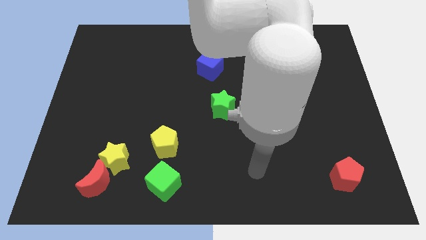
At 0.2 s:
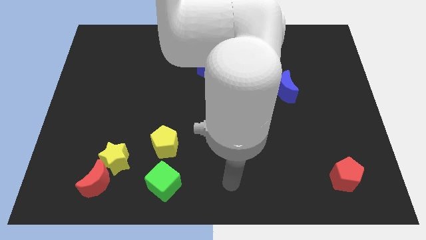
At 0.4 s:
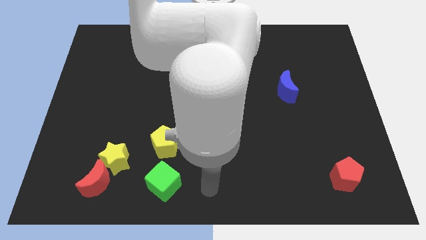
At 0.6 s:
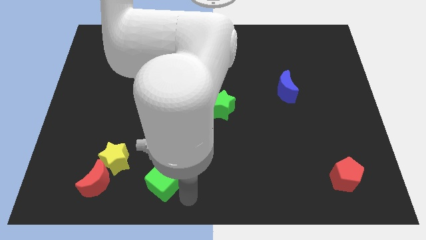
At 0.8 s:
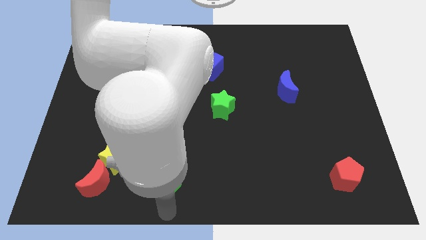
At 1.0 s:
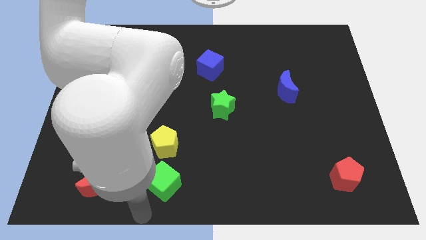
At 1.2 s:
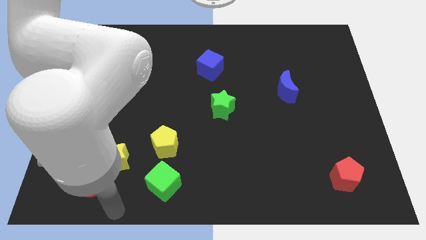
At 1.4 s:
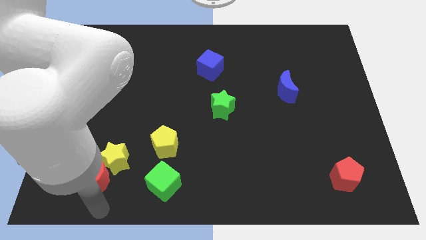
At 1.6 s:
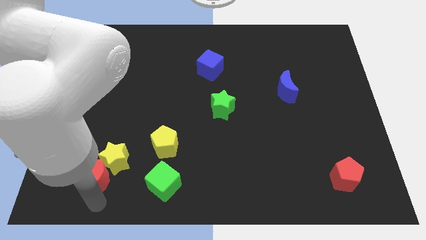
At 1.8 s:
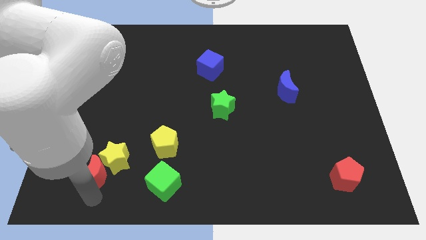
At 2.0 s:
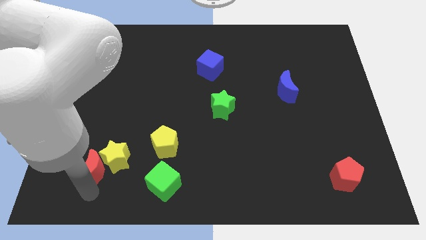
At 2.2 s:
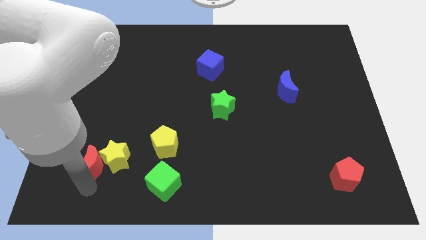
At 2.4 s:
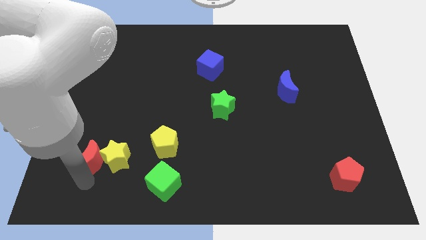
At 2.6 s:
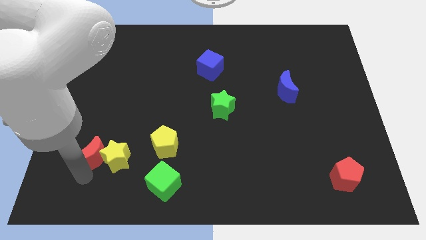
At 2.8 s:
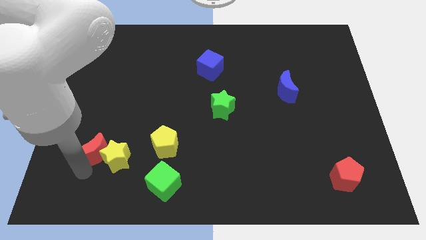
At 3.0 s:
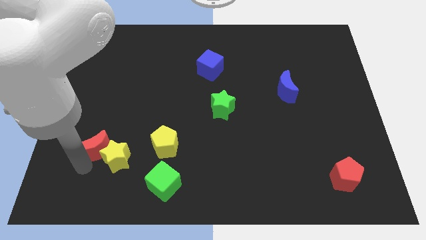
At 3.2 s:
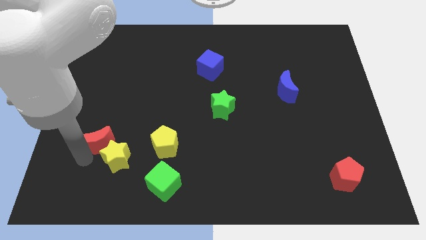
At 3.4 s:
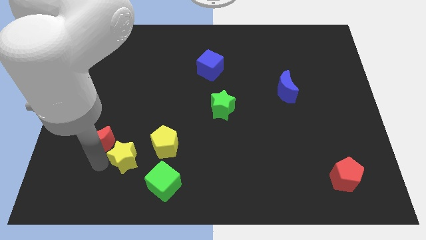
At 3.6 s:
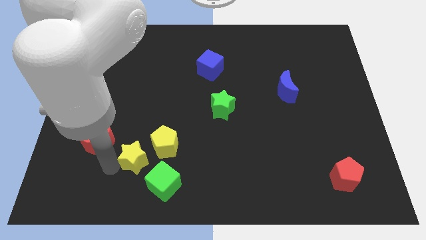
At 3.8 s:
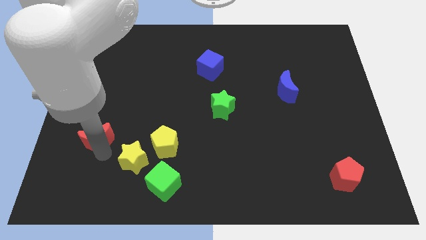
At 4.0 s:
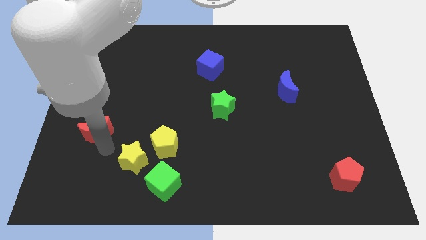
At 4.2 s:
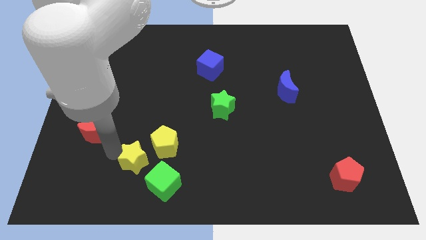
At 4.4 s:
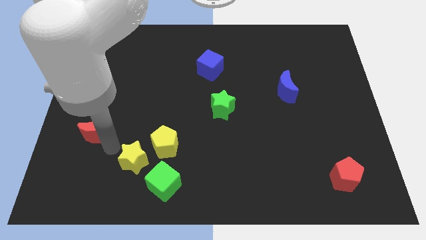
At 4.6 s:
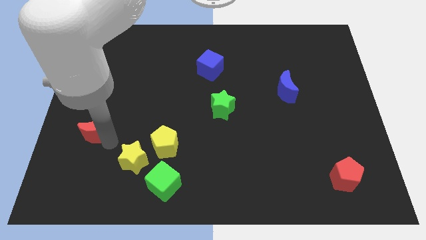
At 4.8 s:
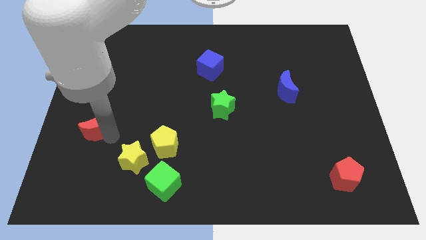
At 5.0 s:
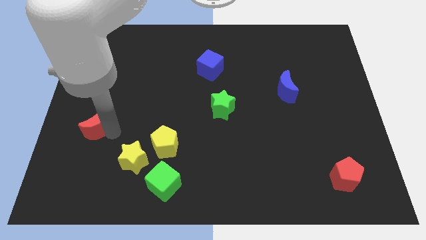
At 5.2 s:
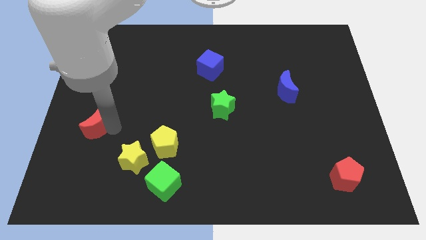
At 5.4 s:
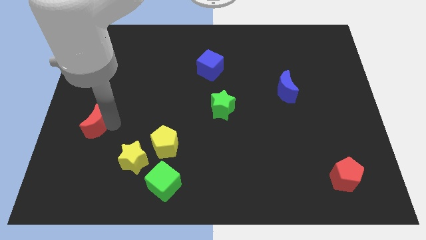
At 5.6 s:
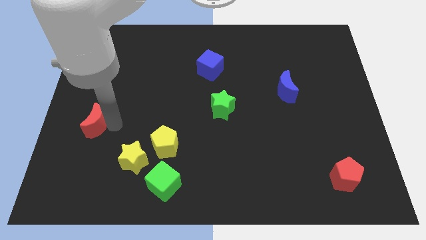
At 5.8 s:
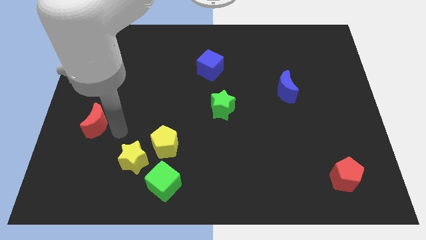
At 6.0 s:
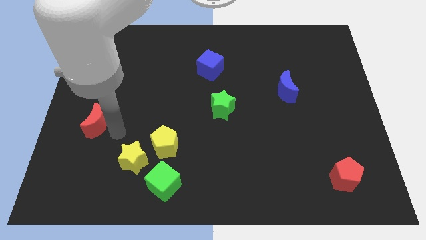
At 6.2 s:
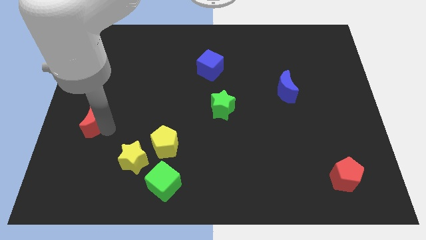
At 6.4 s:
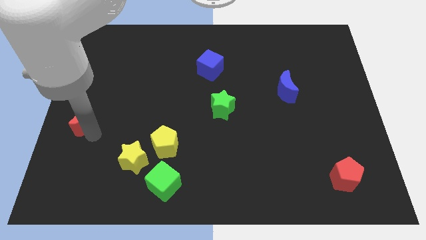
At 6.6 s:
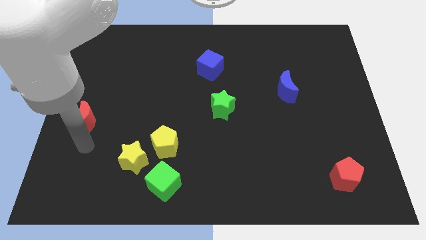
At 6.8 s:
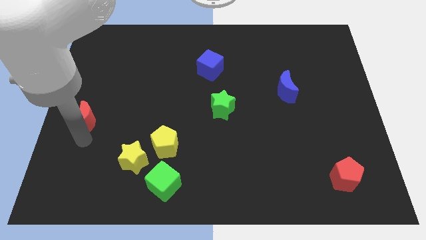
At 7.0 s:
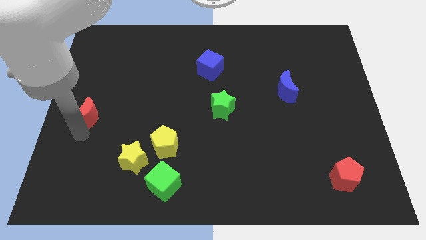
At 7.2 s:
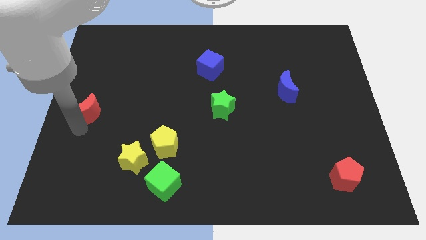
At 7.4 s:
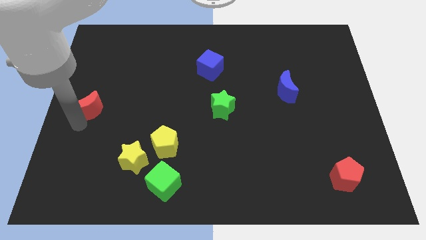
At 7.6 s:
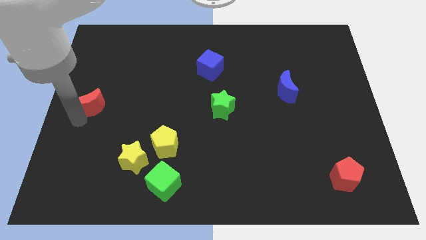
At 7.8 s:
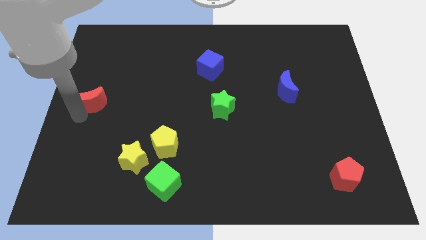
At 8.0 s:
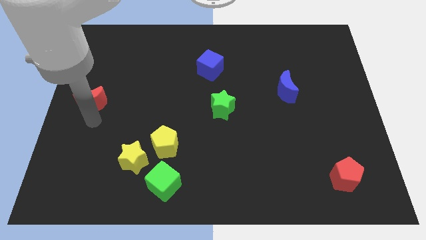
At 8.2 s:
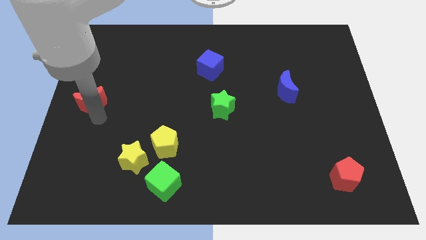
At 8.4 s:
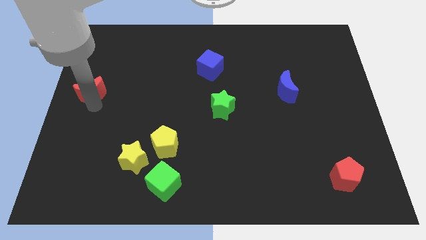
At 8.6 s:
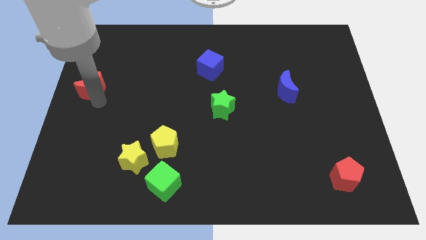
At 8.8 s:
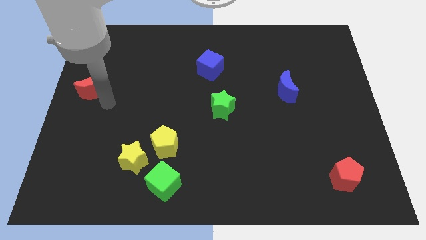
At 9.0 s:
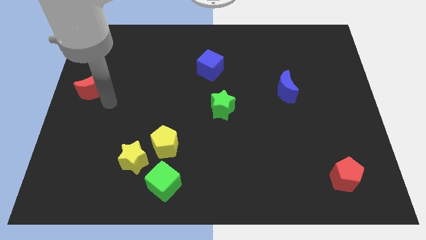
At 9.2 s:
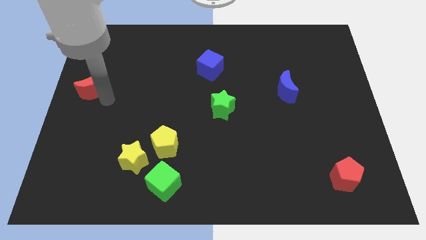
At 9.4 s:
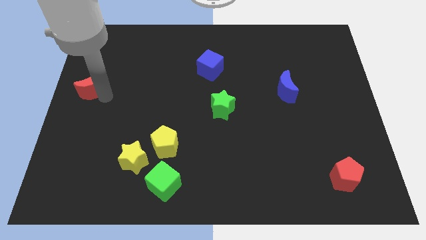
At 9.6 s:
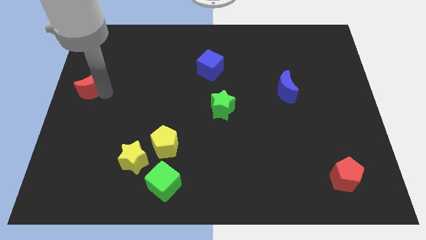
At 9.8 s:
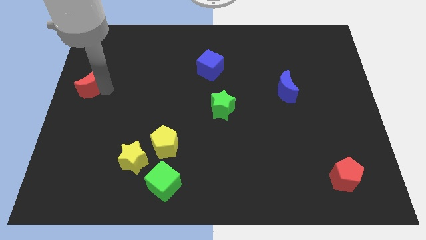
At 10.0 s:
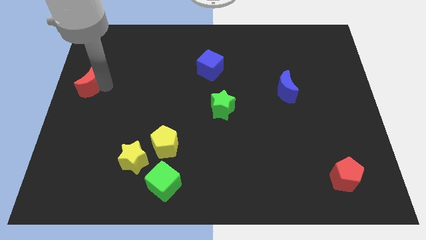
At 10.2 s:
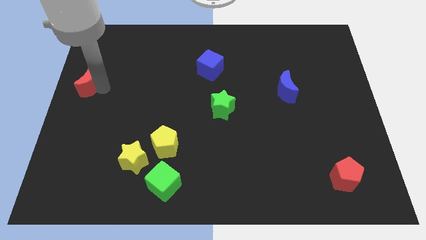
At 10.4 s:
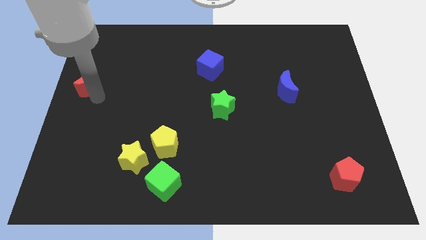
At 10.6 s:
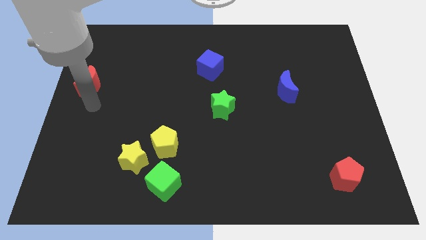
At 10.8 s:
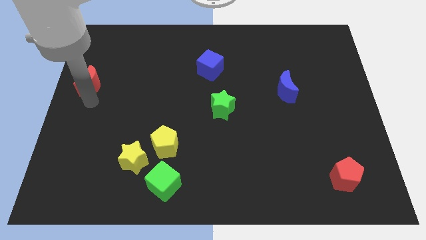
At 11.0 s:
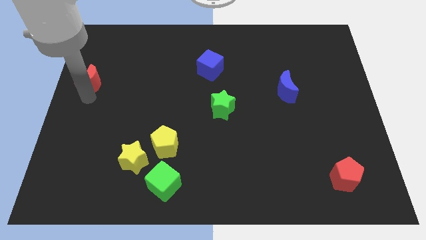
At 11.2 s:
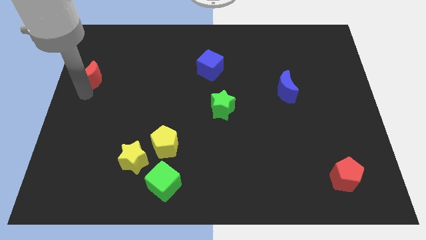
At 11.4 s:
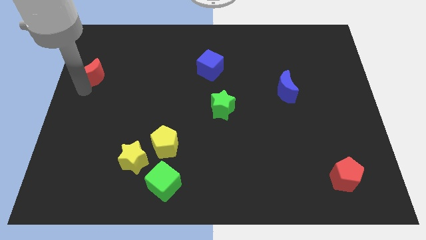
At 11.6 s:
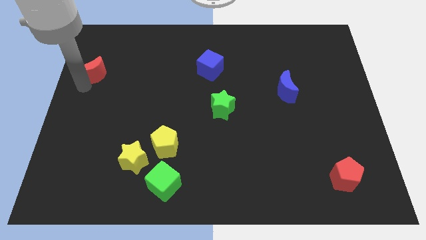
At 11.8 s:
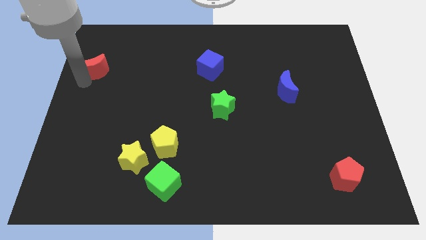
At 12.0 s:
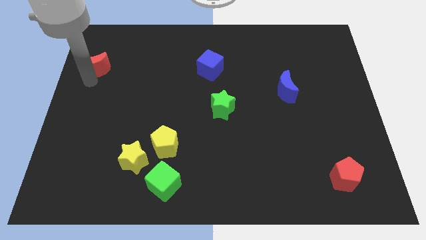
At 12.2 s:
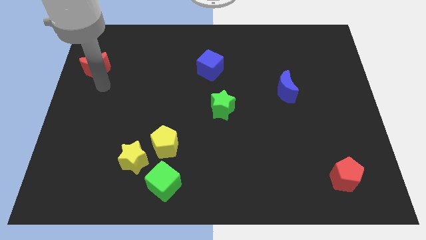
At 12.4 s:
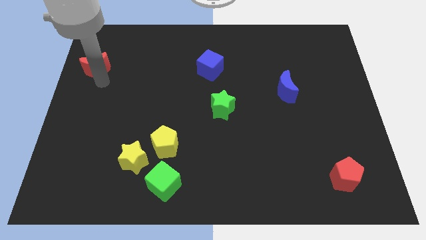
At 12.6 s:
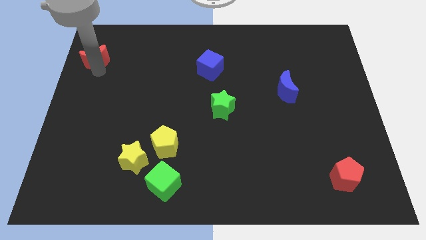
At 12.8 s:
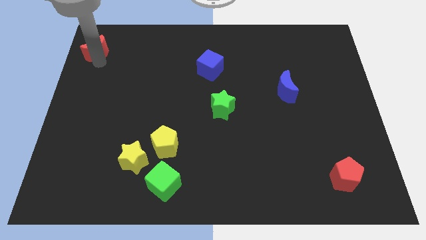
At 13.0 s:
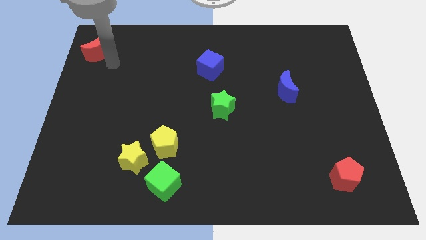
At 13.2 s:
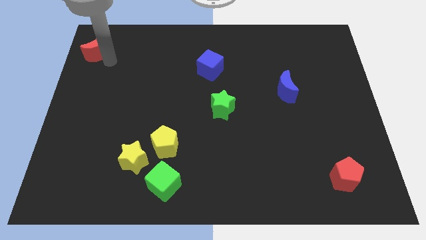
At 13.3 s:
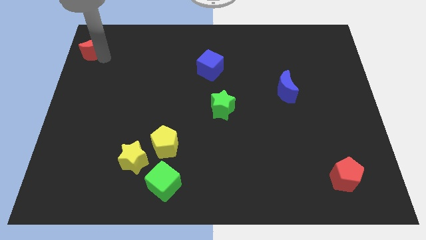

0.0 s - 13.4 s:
slide the red moon to the top left of the board

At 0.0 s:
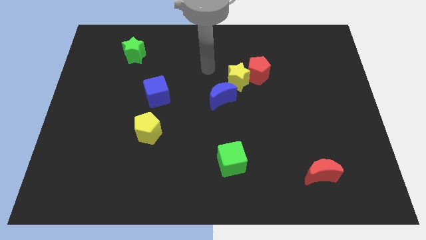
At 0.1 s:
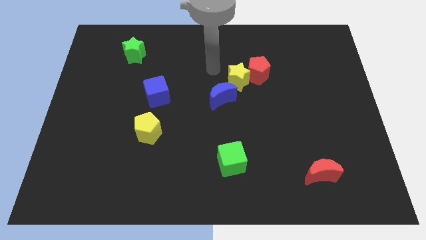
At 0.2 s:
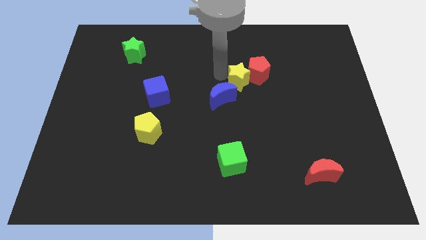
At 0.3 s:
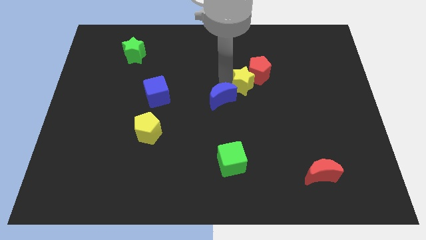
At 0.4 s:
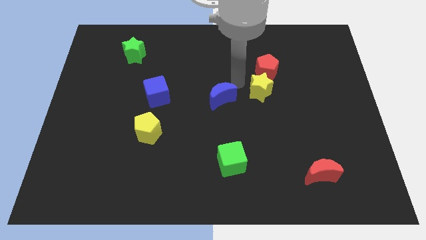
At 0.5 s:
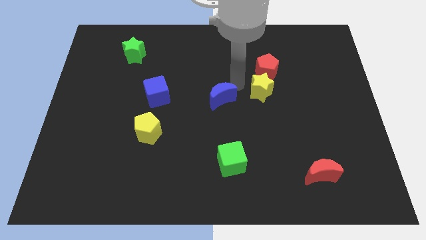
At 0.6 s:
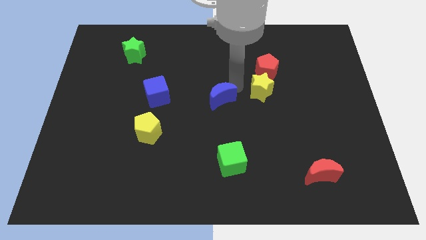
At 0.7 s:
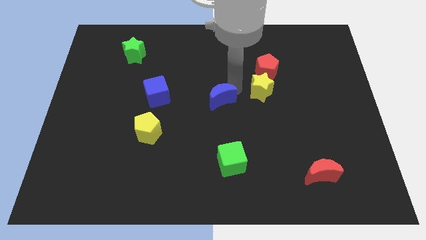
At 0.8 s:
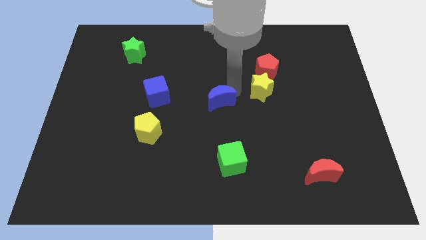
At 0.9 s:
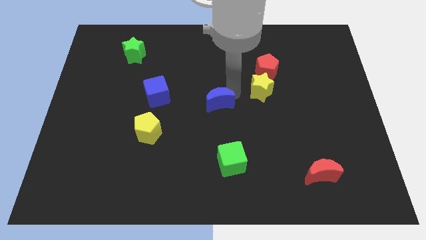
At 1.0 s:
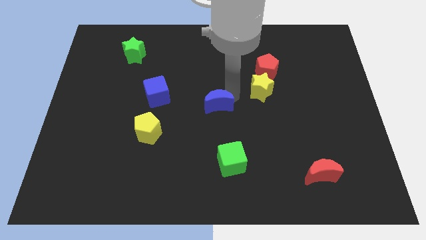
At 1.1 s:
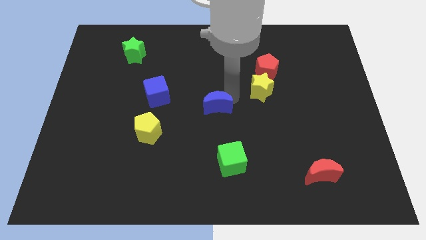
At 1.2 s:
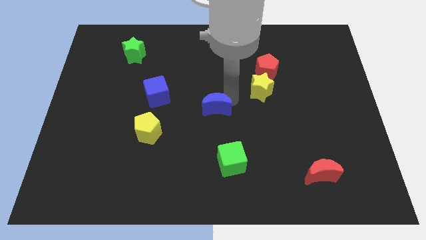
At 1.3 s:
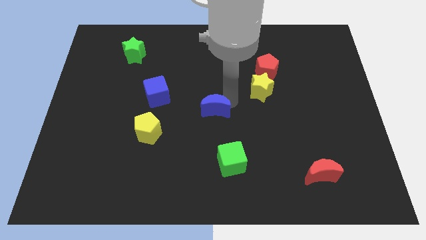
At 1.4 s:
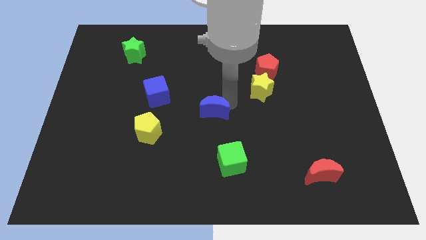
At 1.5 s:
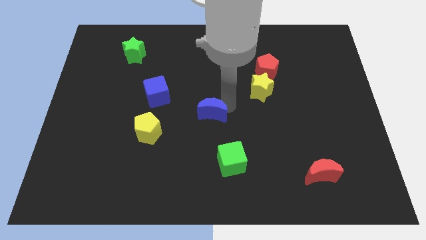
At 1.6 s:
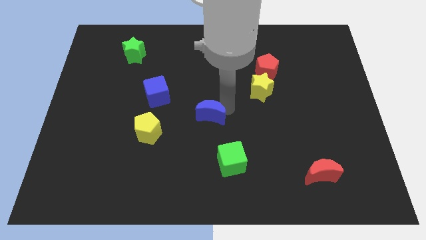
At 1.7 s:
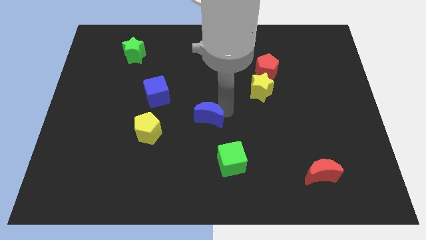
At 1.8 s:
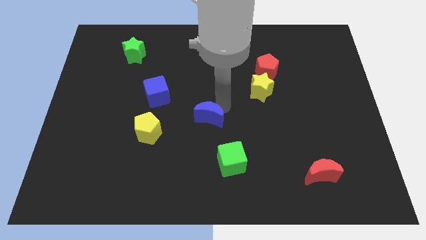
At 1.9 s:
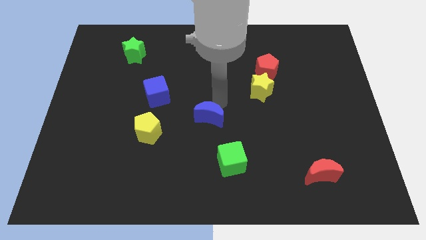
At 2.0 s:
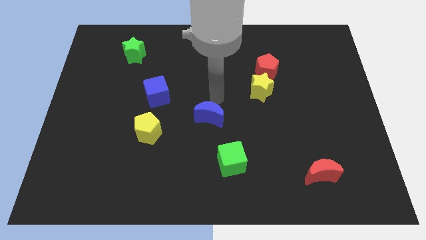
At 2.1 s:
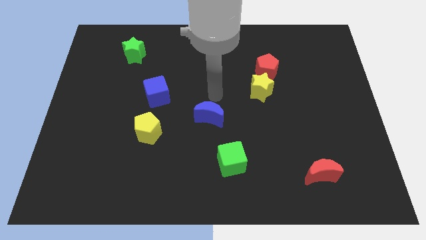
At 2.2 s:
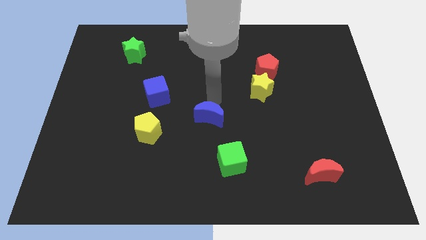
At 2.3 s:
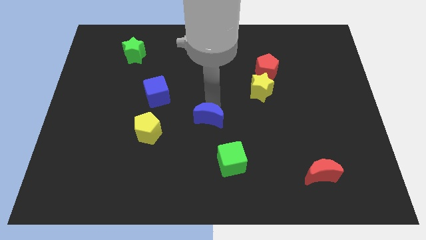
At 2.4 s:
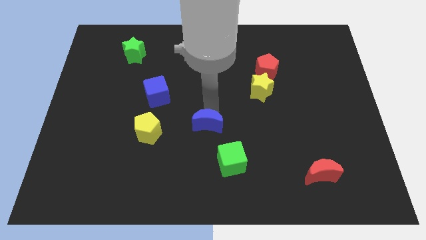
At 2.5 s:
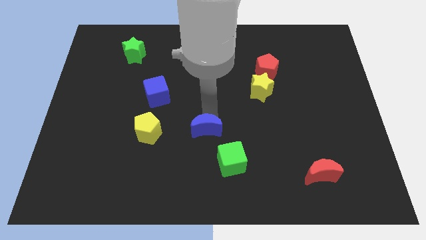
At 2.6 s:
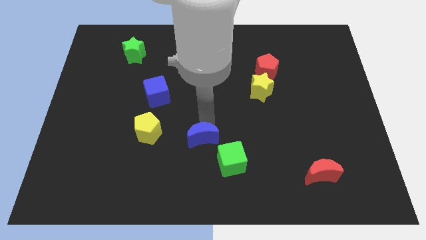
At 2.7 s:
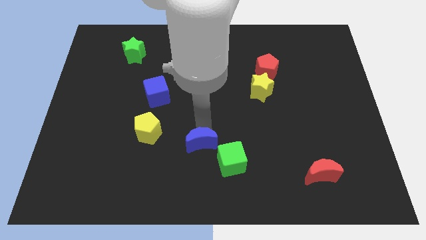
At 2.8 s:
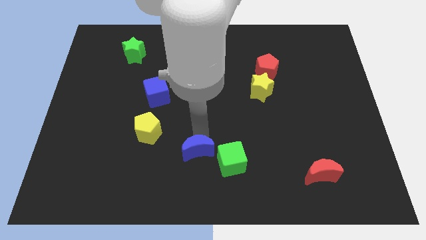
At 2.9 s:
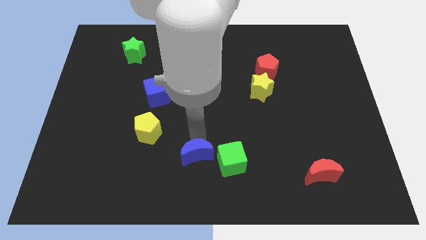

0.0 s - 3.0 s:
put the blue moon to the bottom side
